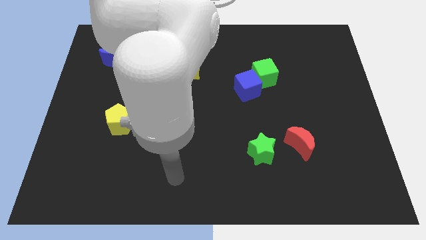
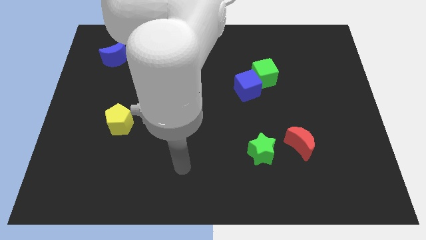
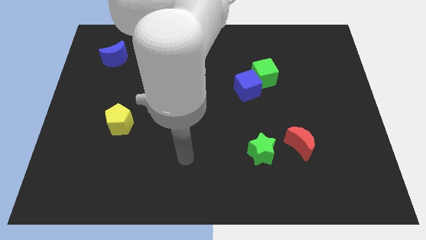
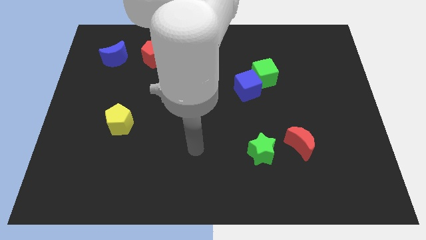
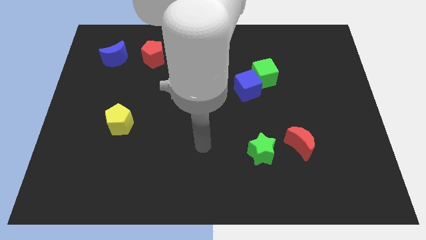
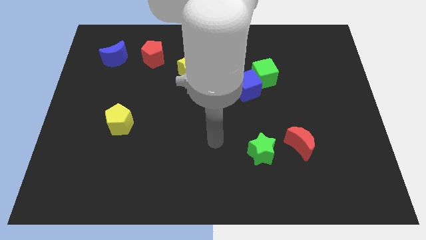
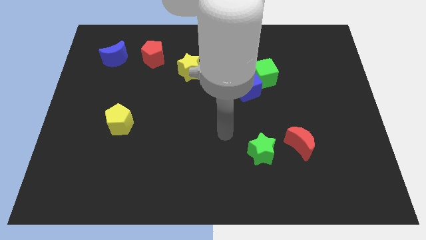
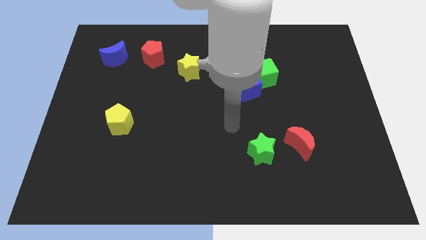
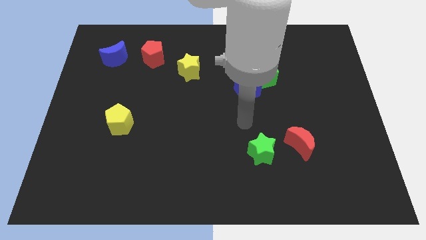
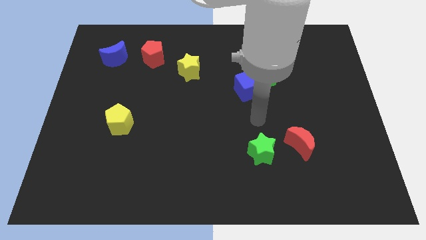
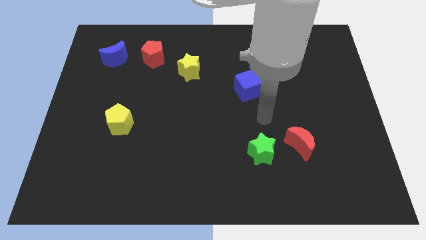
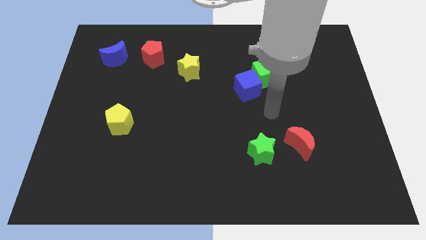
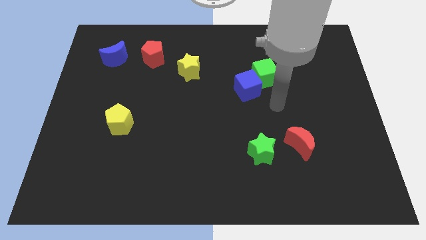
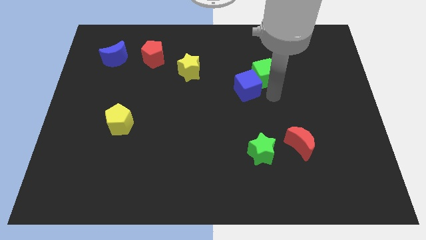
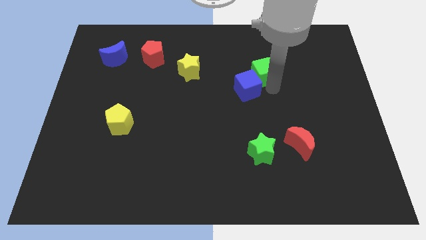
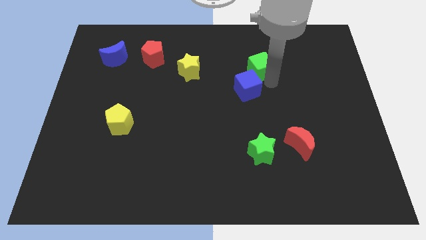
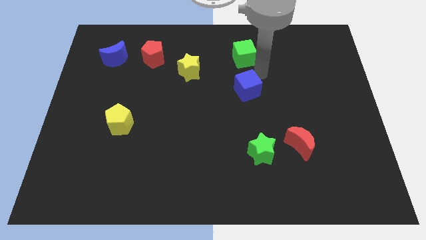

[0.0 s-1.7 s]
separate the blue cube from the green cube

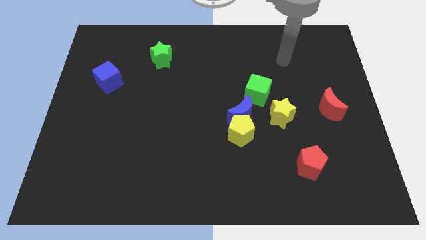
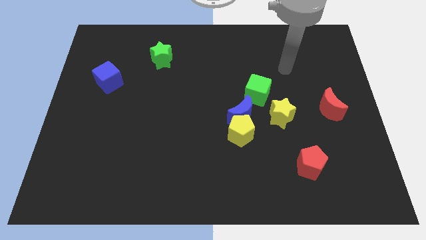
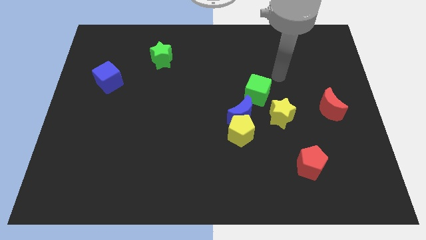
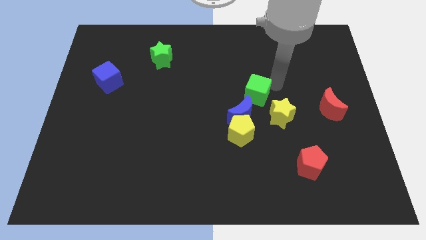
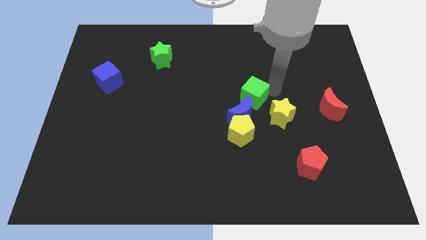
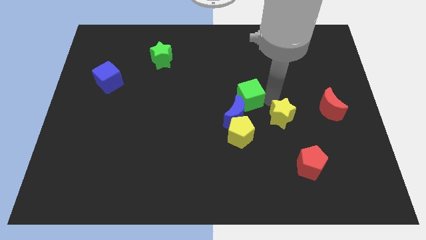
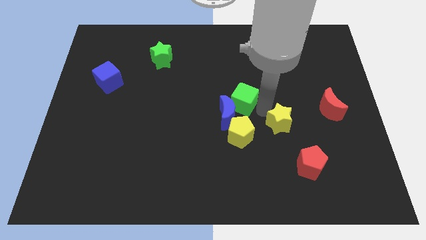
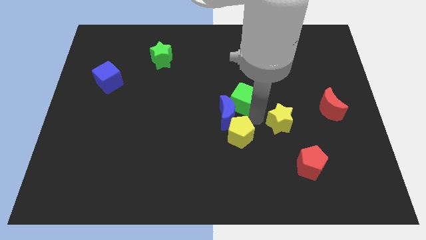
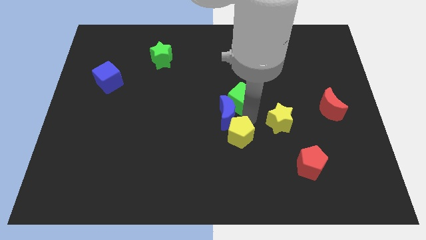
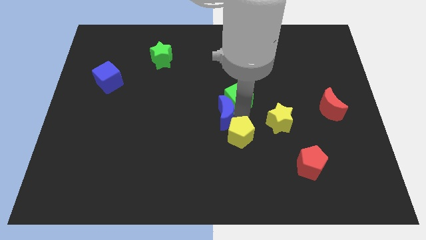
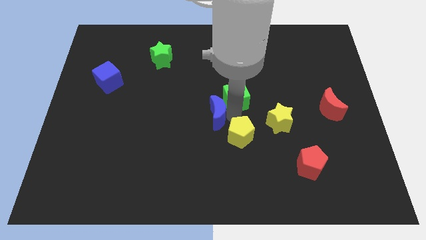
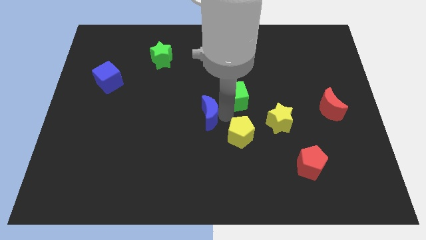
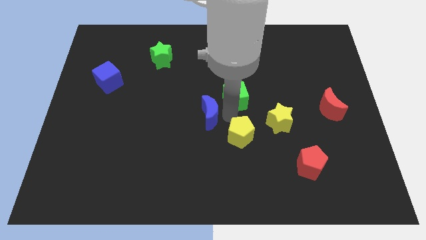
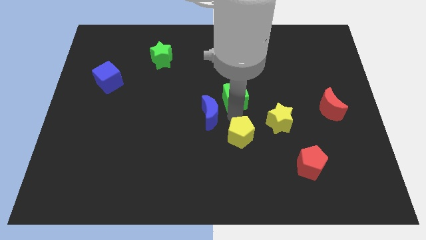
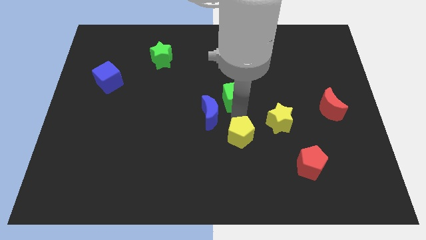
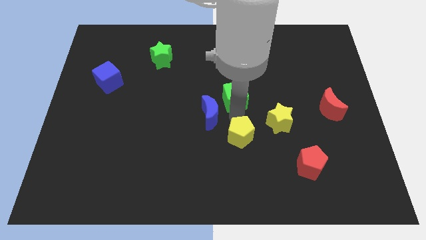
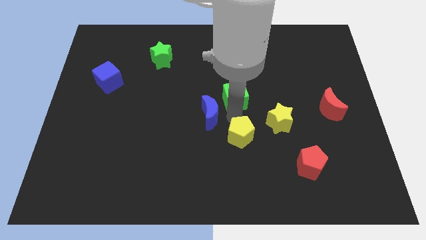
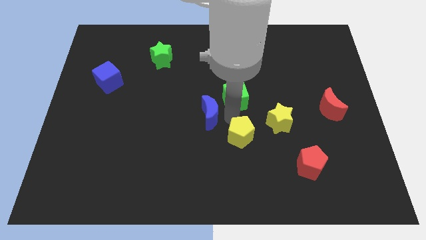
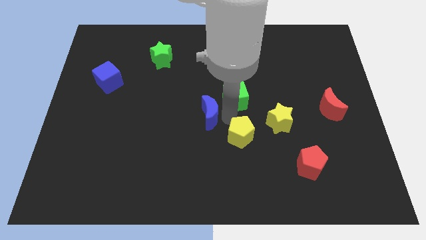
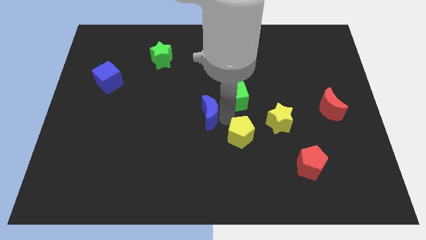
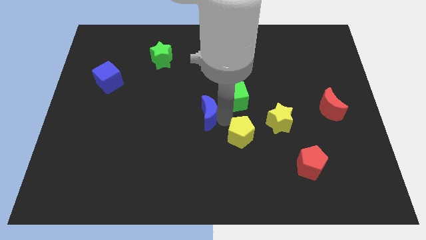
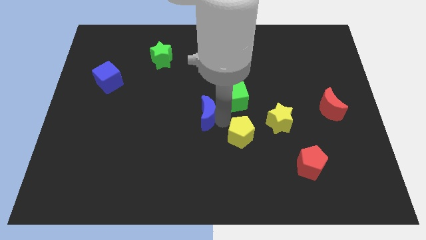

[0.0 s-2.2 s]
separate the blue moon from the yellow pentagon, green cube, and yellow star

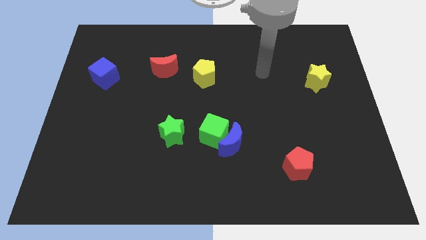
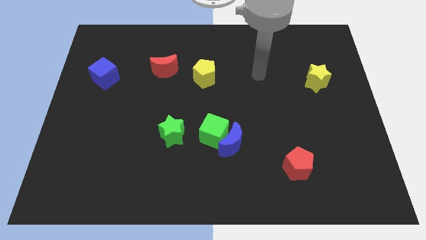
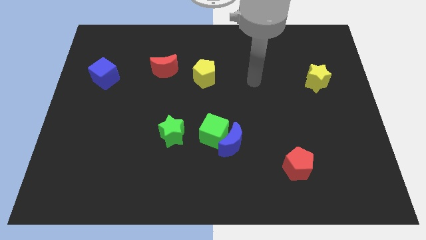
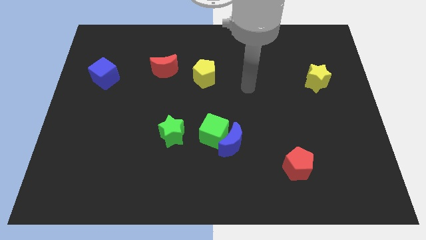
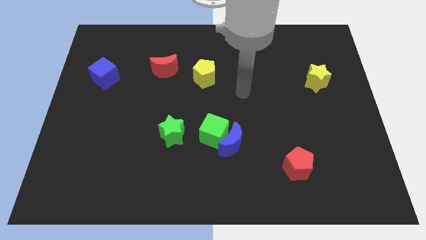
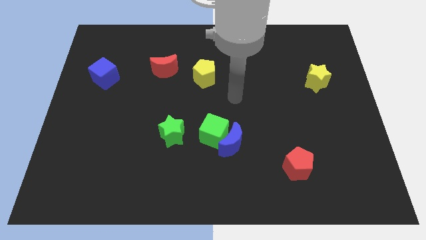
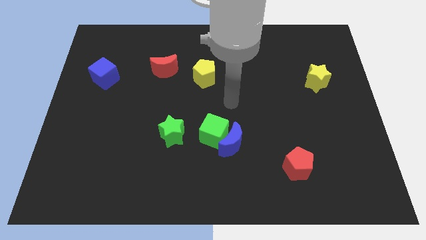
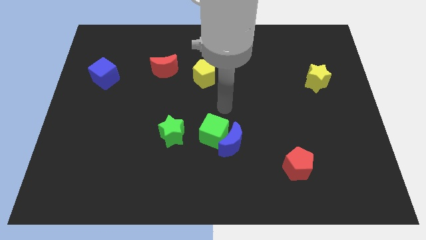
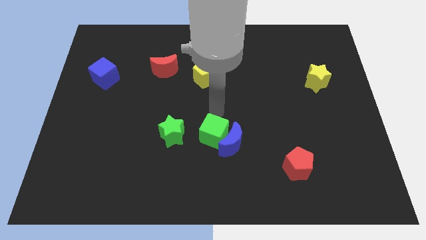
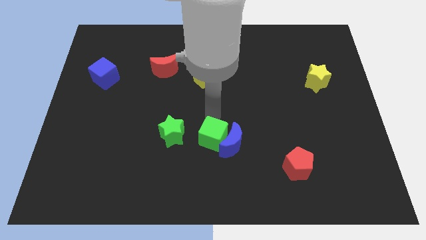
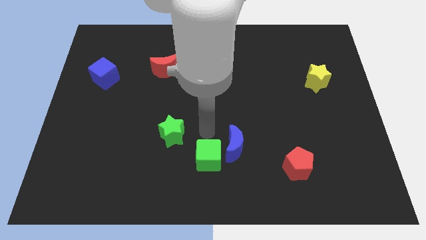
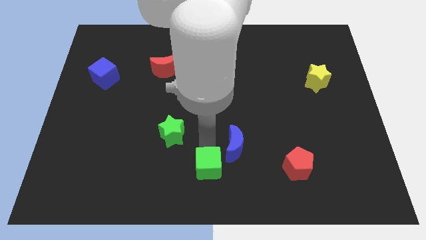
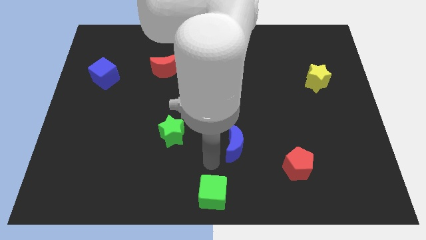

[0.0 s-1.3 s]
separate the blue moon from the green cube

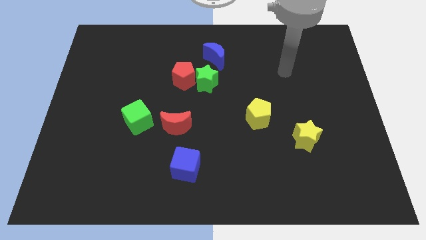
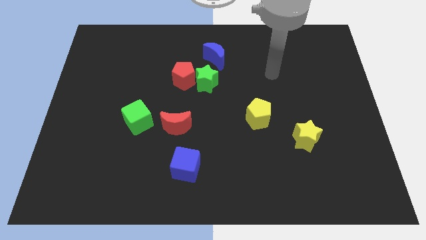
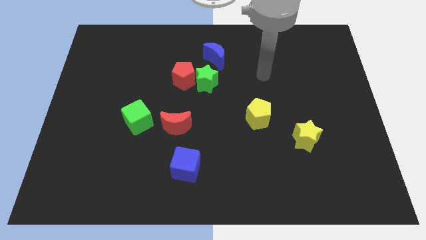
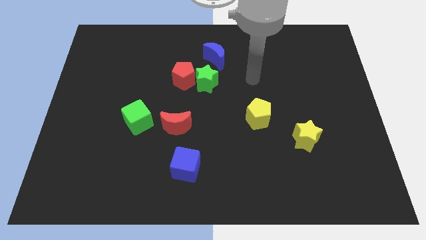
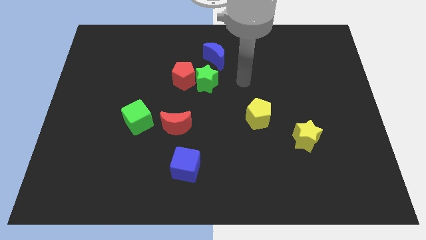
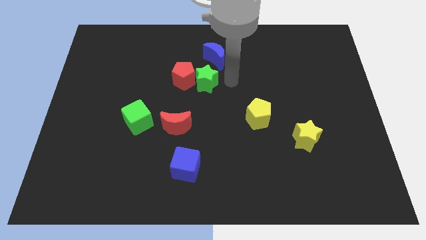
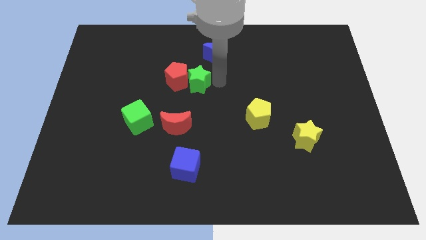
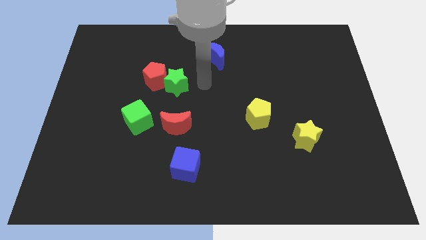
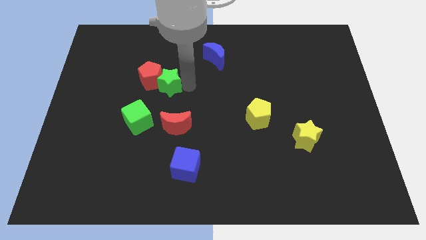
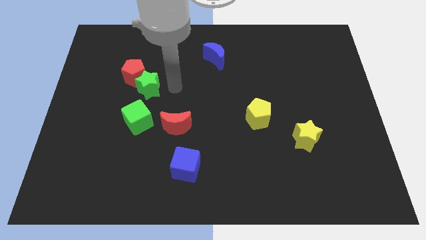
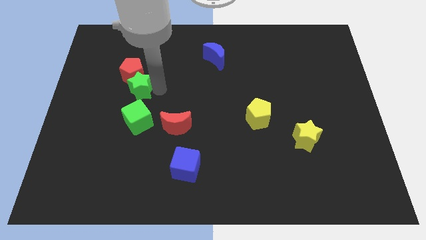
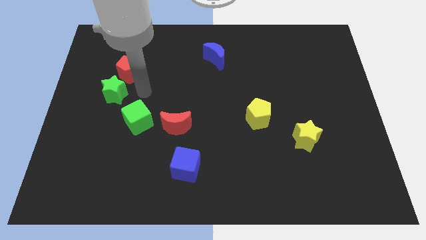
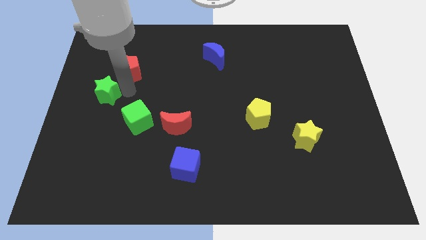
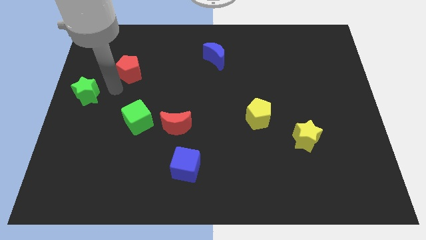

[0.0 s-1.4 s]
separate the red pentagon from the green star

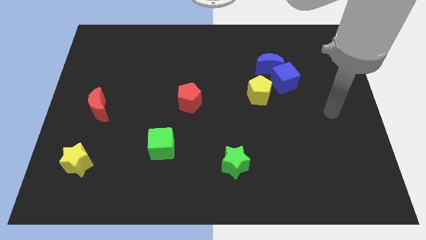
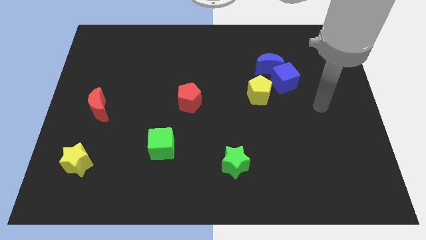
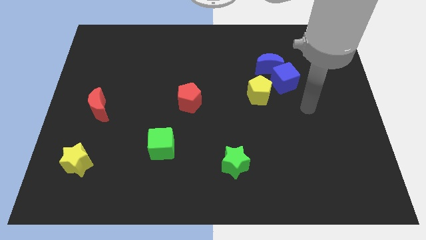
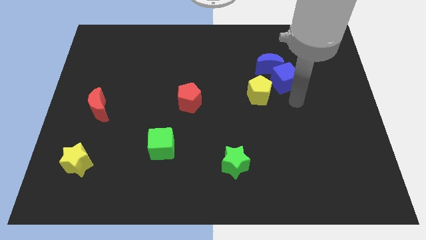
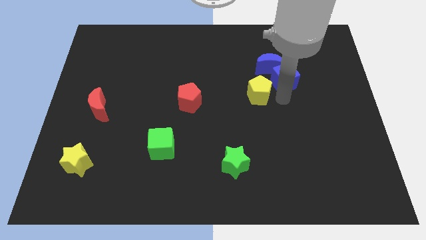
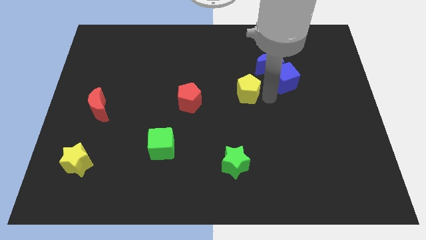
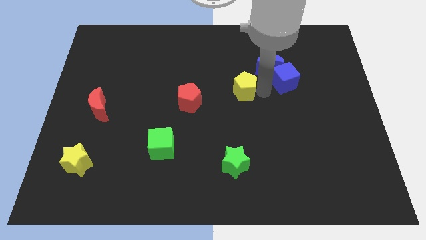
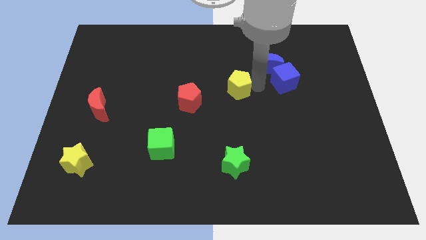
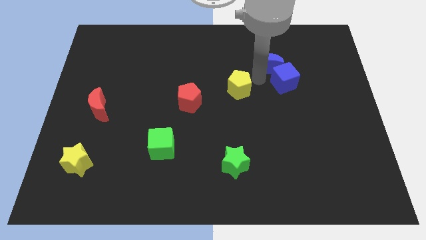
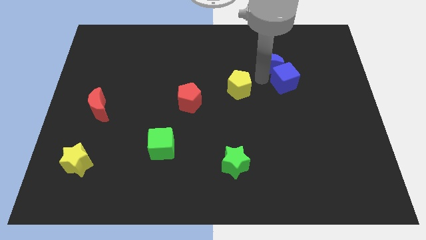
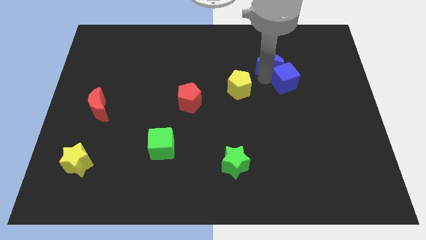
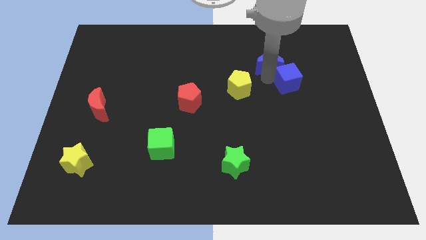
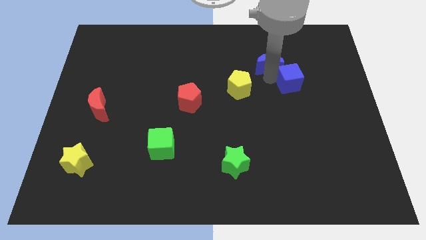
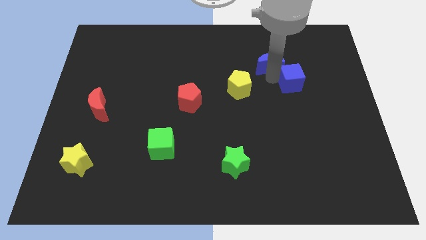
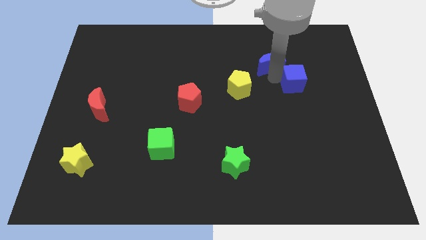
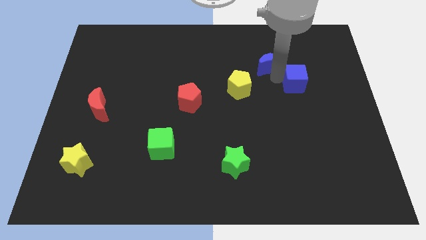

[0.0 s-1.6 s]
move the blue cube away from the blue moon and yellow pentagon

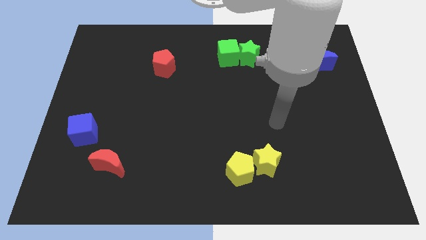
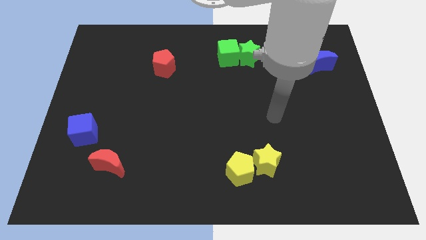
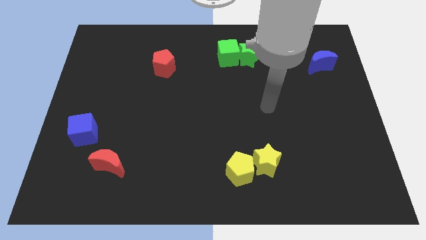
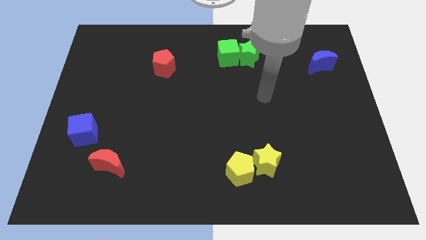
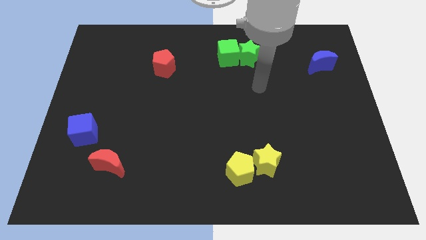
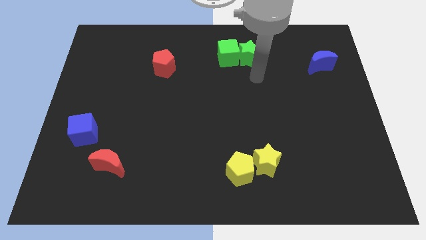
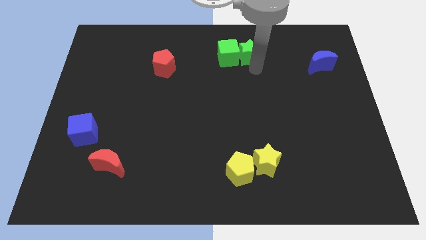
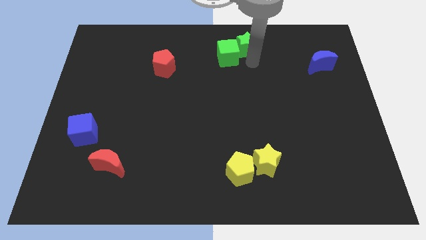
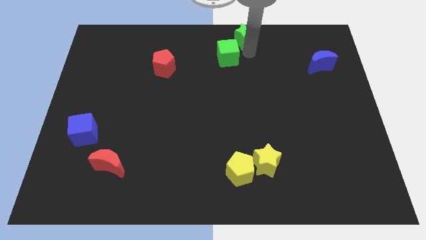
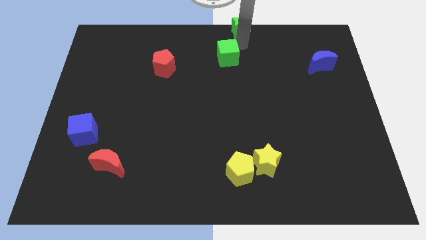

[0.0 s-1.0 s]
move the green cube away from the green star

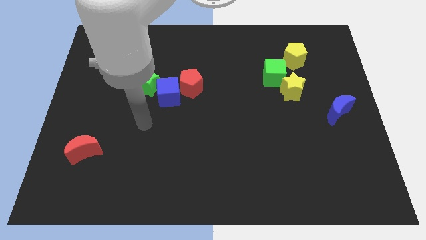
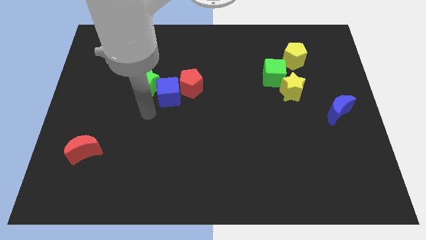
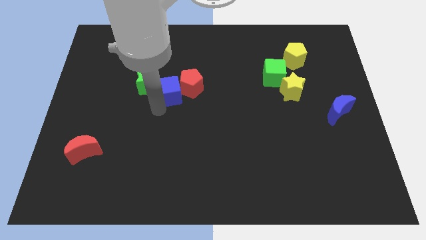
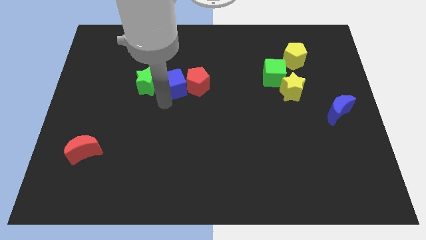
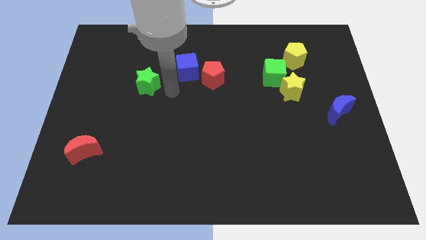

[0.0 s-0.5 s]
move the green star away from the blue cube
